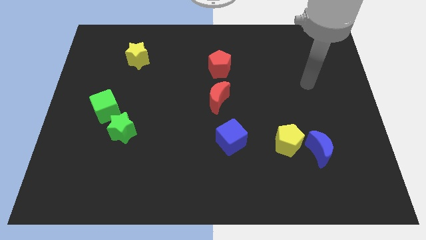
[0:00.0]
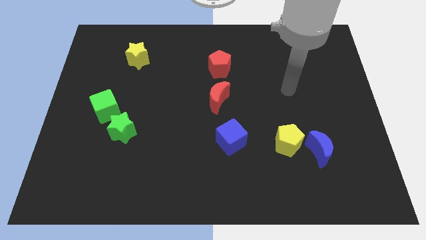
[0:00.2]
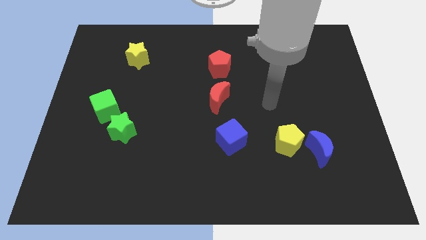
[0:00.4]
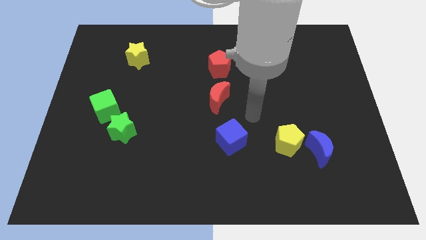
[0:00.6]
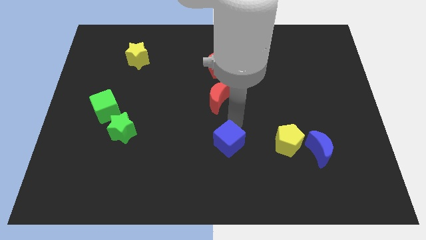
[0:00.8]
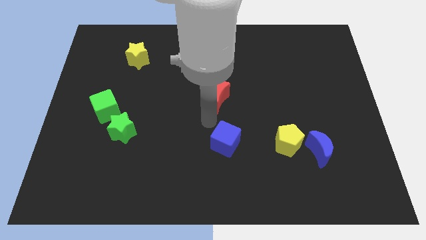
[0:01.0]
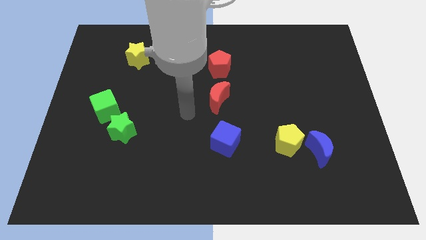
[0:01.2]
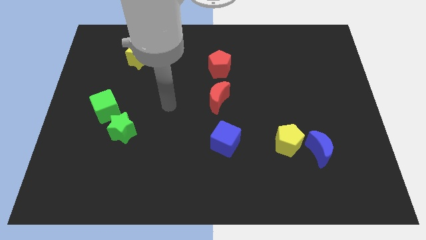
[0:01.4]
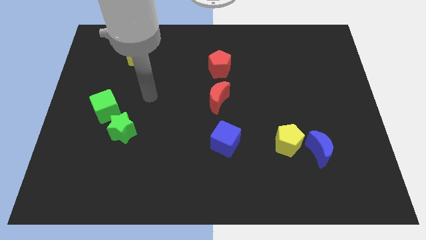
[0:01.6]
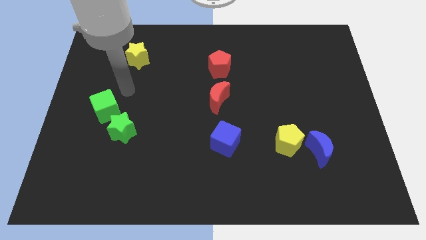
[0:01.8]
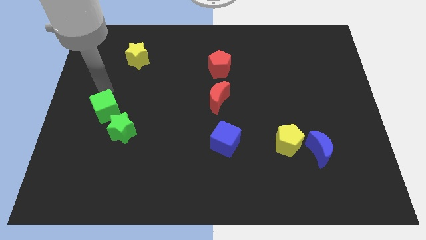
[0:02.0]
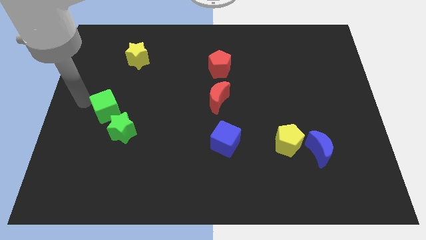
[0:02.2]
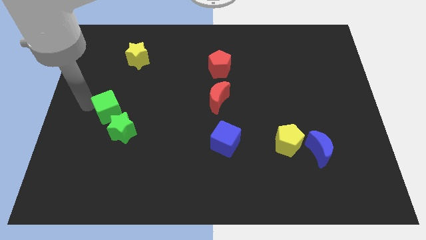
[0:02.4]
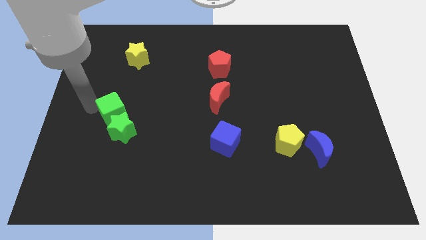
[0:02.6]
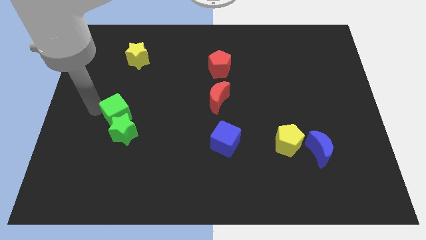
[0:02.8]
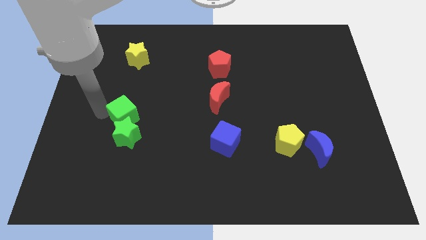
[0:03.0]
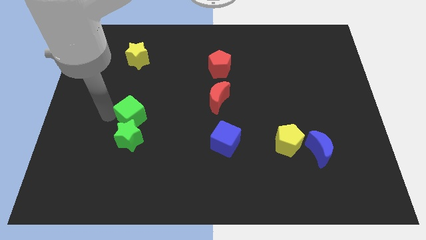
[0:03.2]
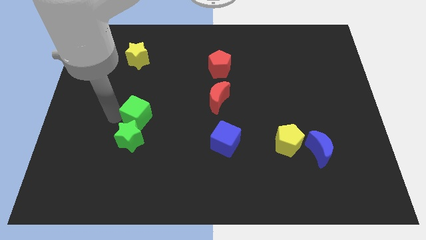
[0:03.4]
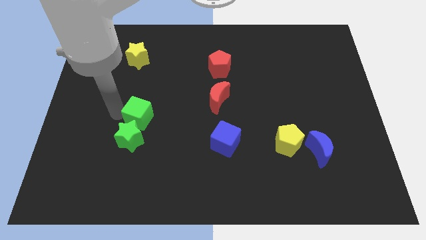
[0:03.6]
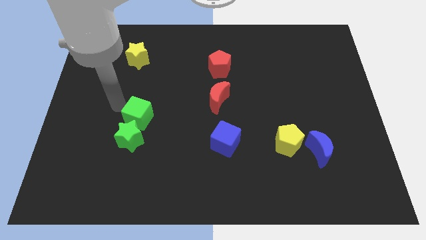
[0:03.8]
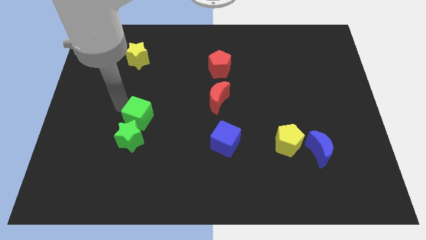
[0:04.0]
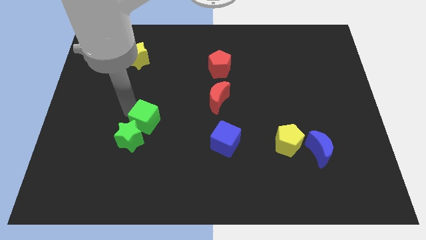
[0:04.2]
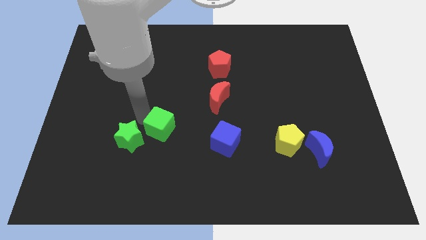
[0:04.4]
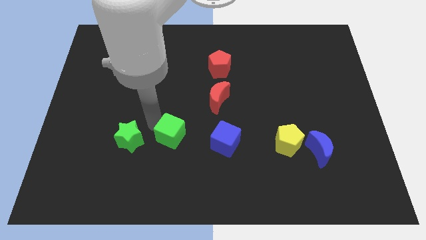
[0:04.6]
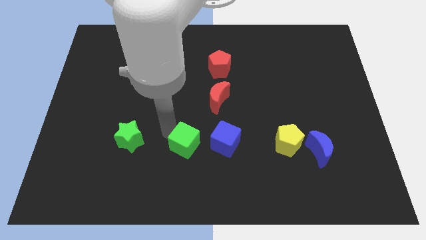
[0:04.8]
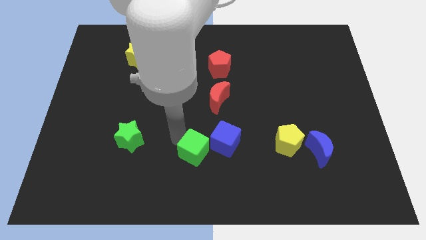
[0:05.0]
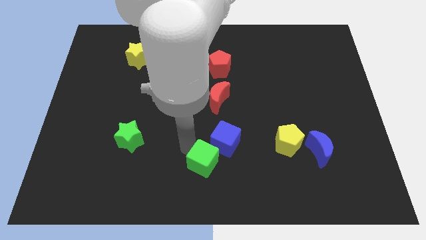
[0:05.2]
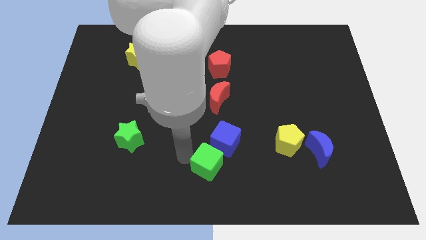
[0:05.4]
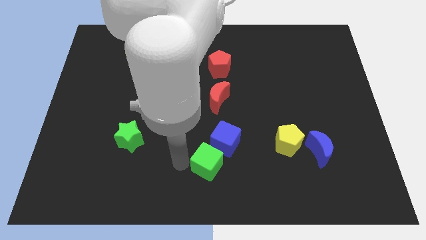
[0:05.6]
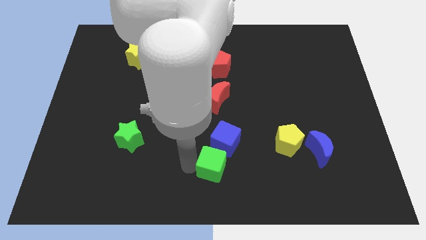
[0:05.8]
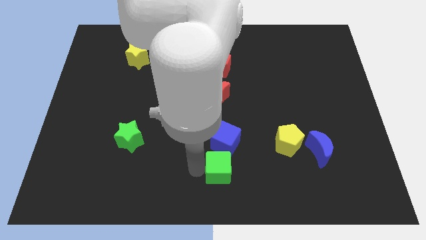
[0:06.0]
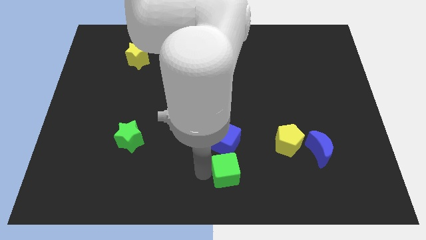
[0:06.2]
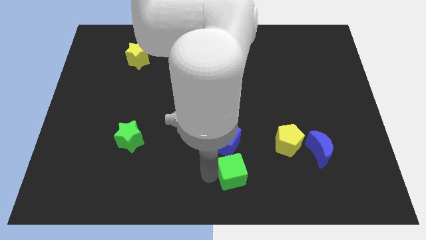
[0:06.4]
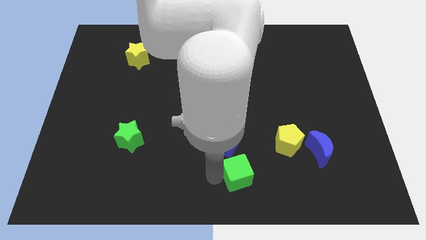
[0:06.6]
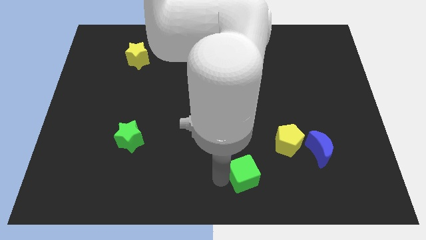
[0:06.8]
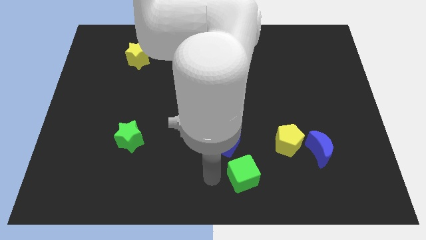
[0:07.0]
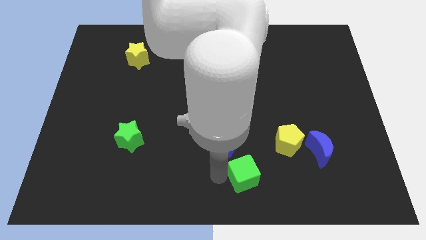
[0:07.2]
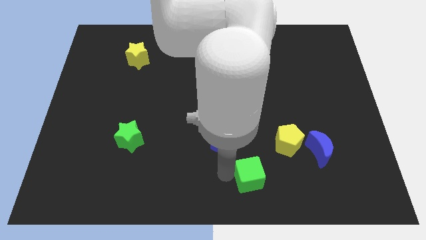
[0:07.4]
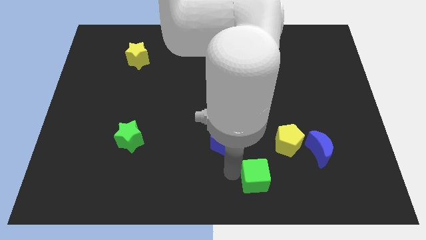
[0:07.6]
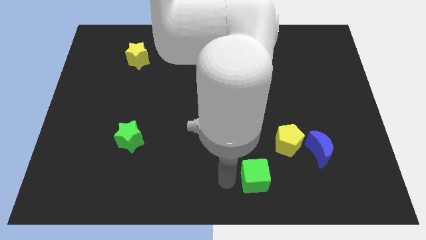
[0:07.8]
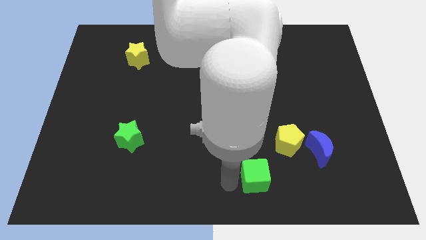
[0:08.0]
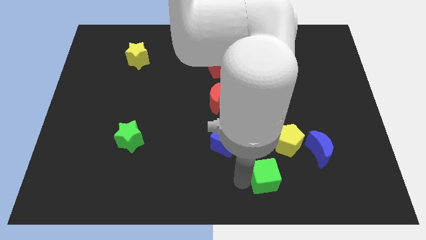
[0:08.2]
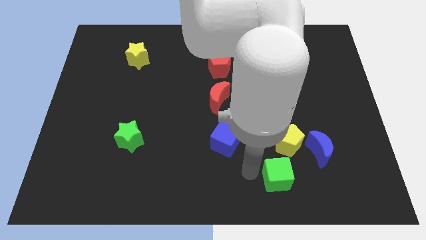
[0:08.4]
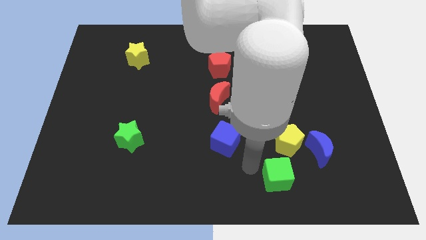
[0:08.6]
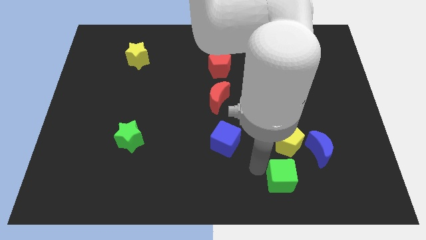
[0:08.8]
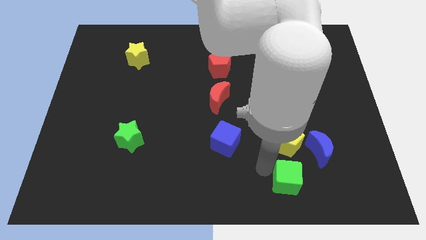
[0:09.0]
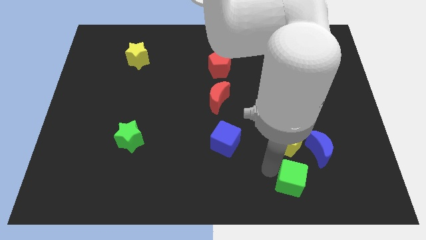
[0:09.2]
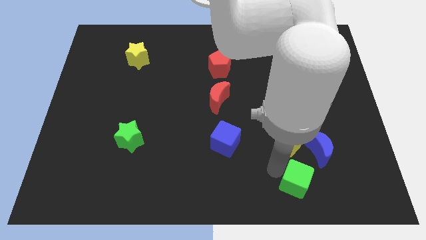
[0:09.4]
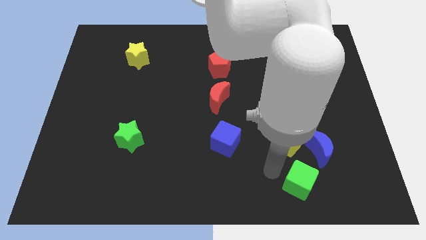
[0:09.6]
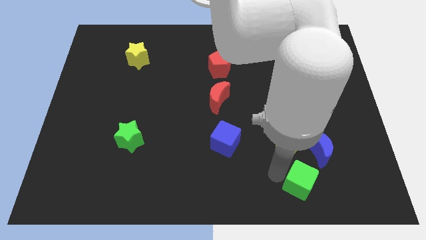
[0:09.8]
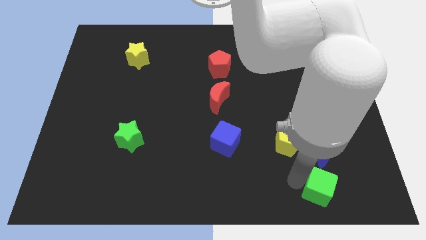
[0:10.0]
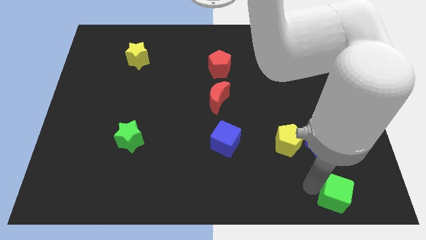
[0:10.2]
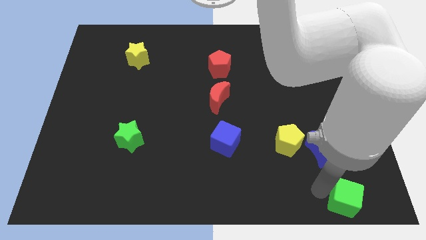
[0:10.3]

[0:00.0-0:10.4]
put the green cube to the lower right corner

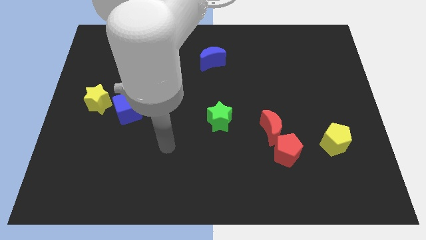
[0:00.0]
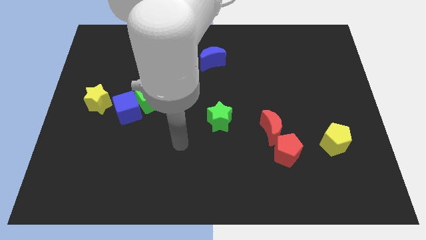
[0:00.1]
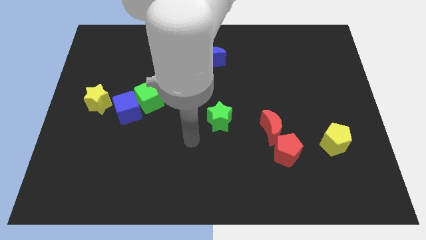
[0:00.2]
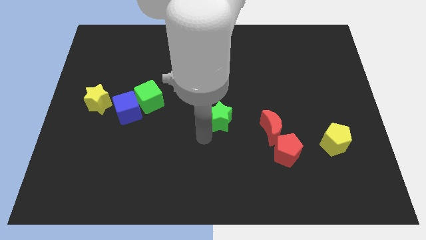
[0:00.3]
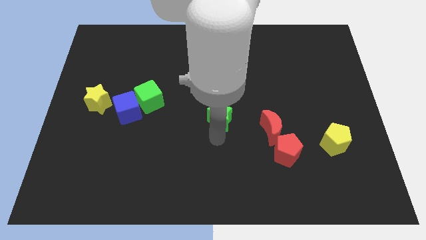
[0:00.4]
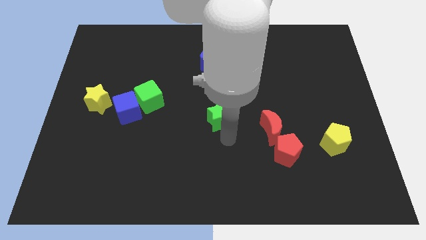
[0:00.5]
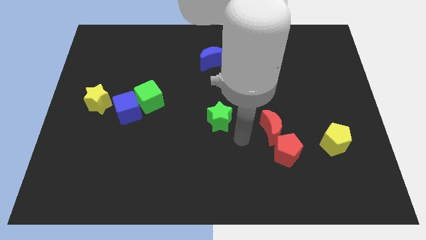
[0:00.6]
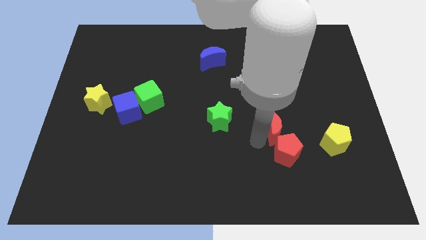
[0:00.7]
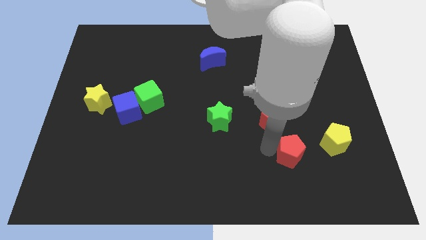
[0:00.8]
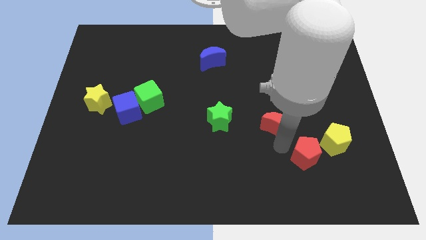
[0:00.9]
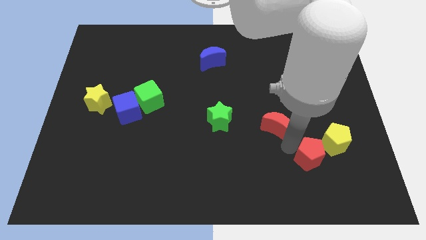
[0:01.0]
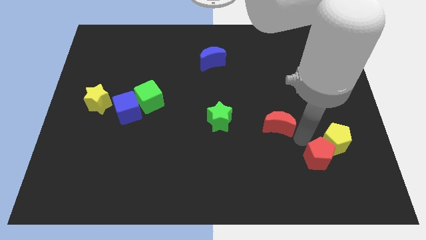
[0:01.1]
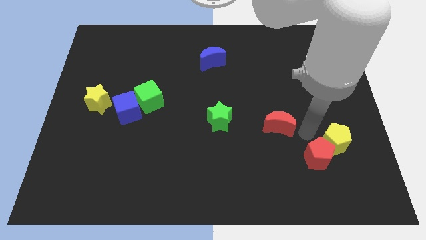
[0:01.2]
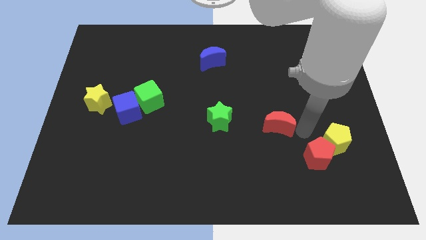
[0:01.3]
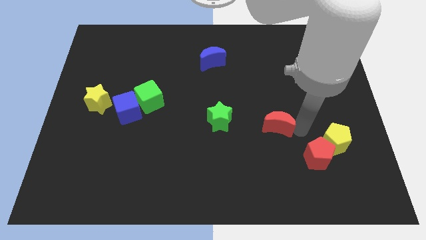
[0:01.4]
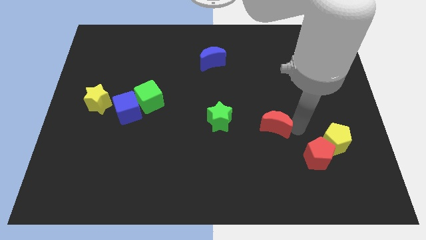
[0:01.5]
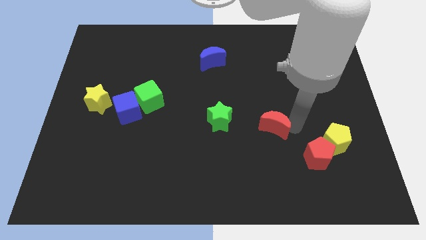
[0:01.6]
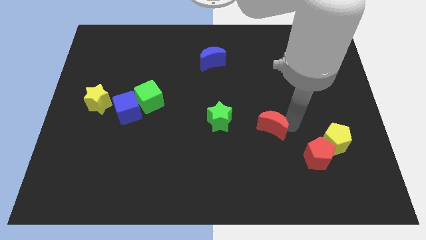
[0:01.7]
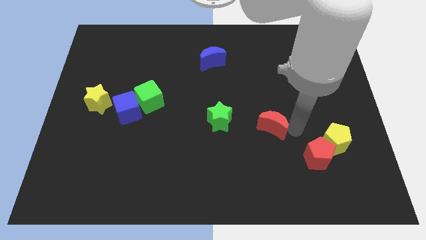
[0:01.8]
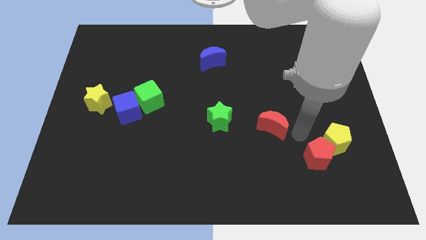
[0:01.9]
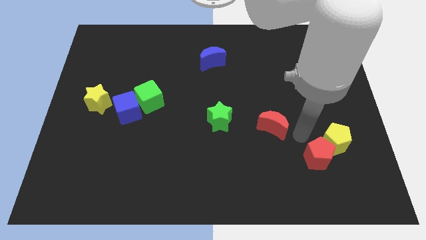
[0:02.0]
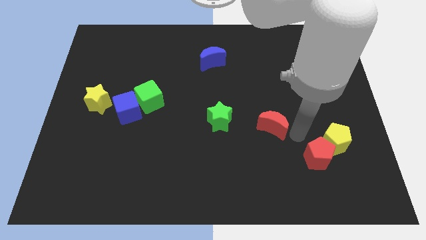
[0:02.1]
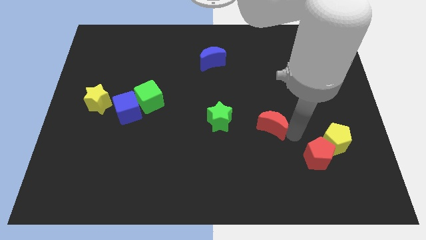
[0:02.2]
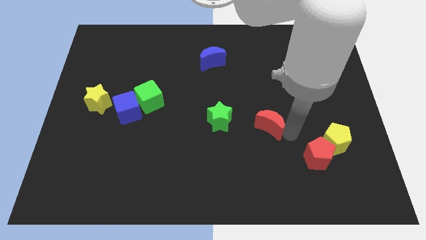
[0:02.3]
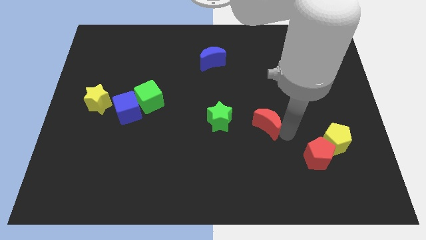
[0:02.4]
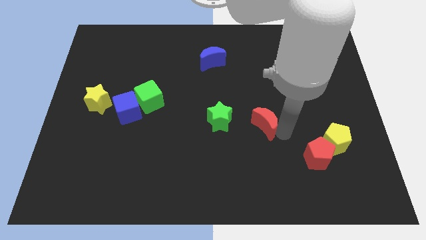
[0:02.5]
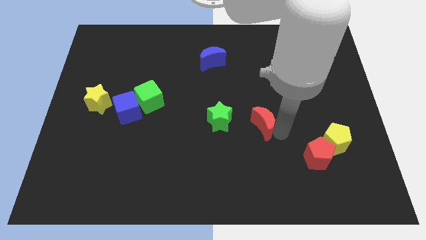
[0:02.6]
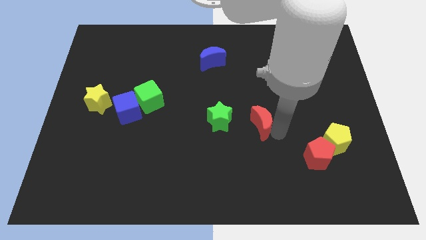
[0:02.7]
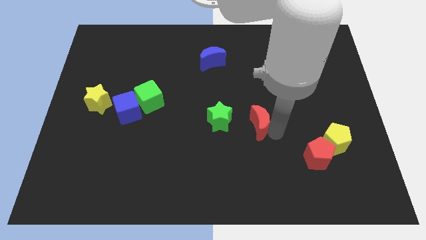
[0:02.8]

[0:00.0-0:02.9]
slide the red moon to the middle
